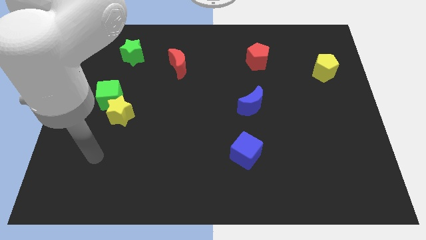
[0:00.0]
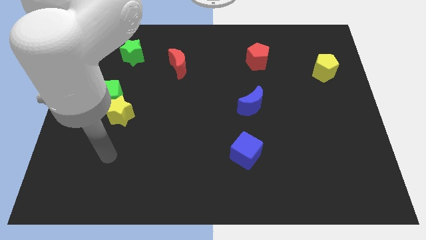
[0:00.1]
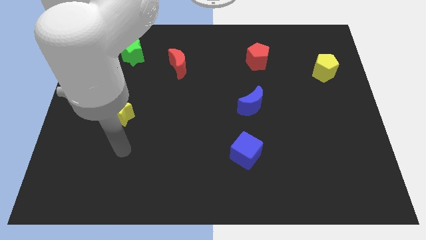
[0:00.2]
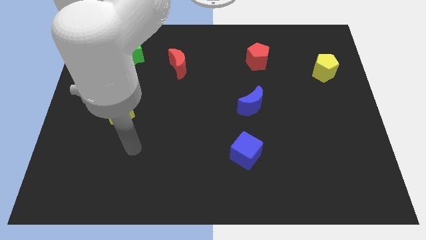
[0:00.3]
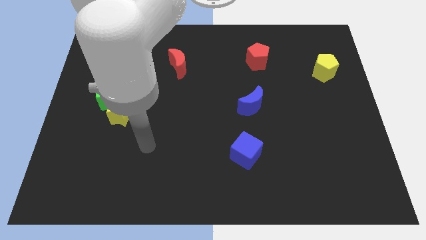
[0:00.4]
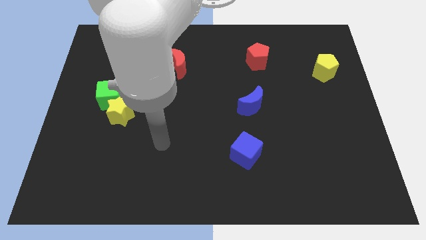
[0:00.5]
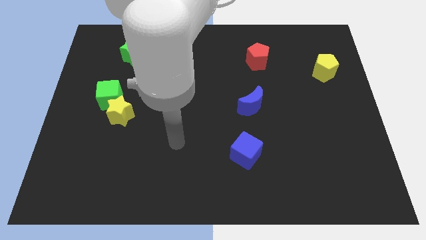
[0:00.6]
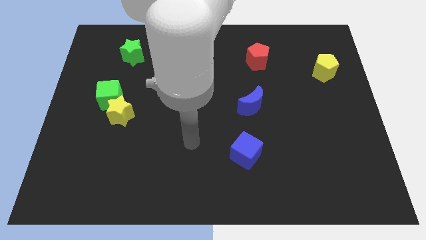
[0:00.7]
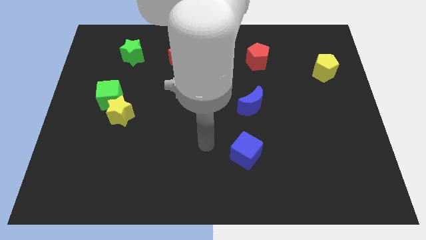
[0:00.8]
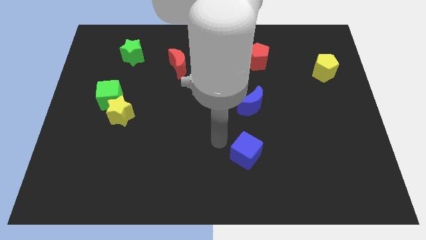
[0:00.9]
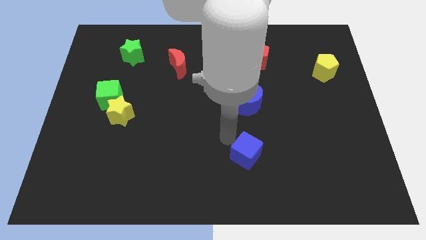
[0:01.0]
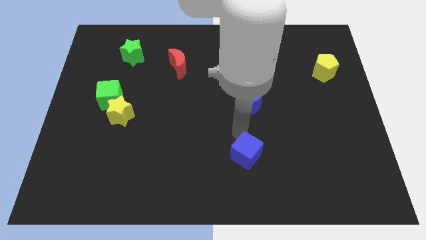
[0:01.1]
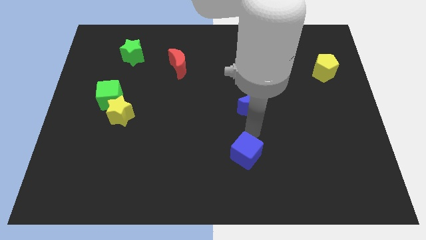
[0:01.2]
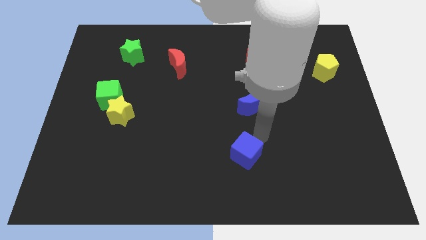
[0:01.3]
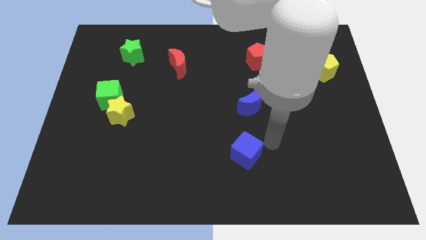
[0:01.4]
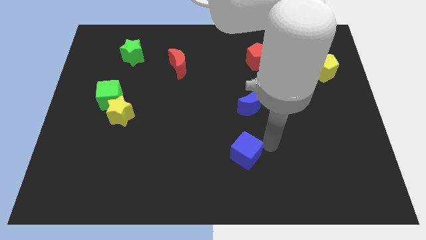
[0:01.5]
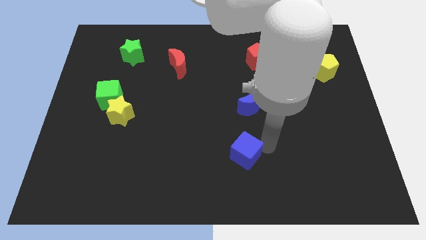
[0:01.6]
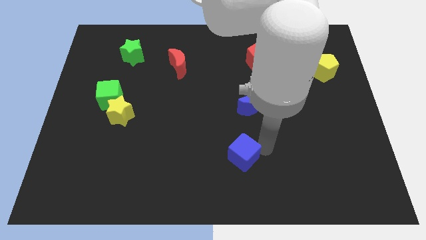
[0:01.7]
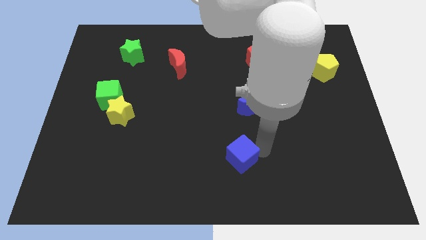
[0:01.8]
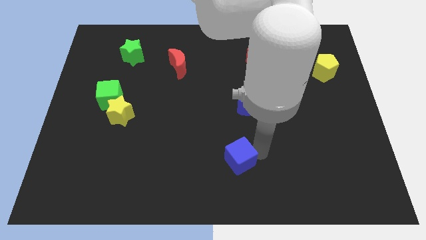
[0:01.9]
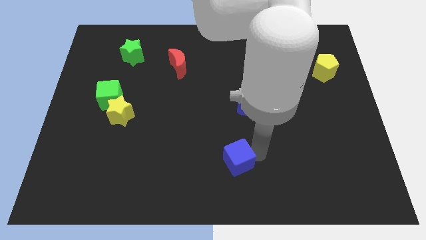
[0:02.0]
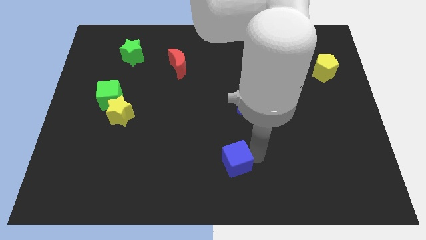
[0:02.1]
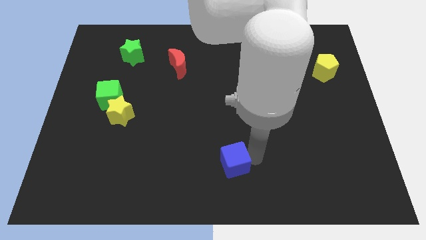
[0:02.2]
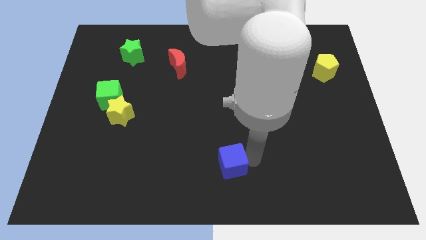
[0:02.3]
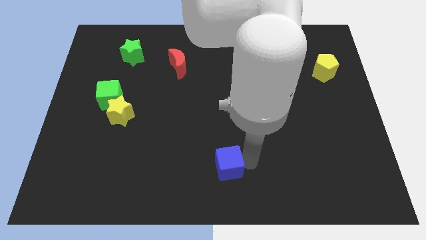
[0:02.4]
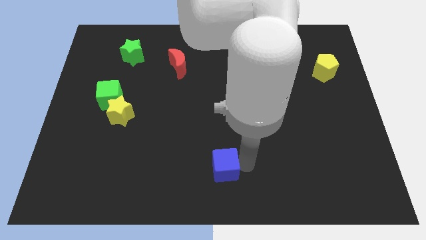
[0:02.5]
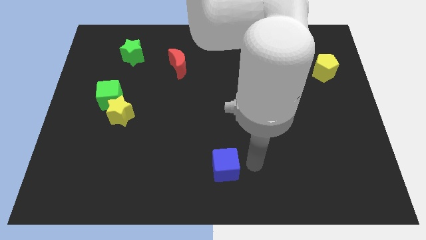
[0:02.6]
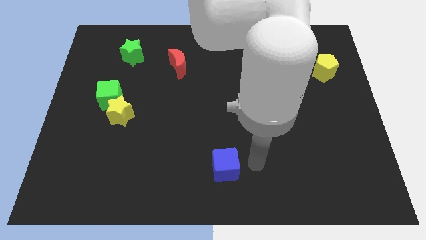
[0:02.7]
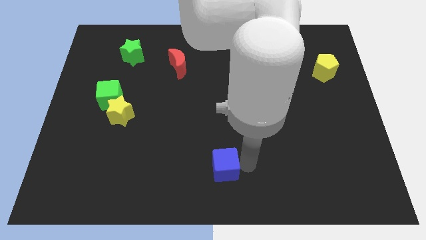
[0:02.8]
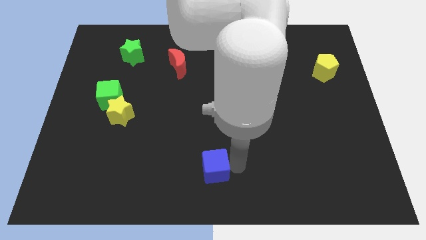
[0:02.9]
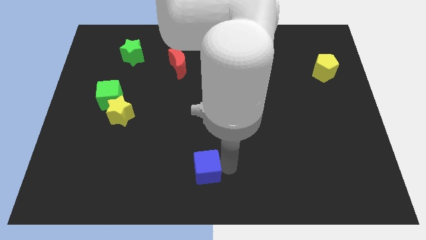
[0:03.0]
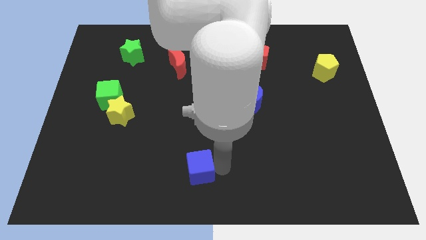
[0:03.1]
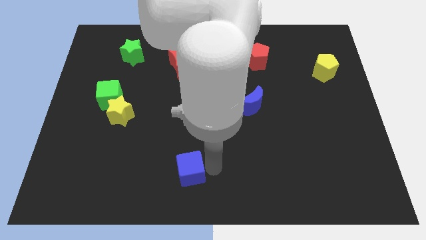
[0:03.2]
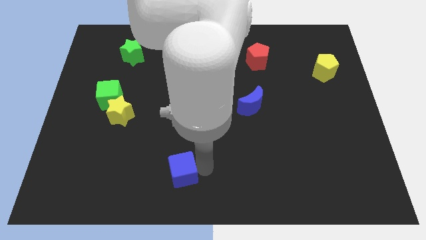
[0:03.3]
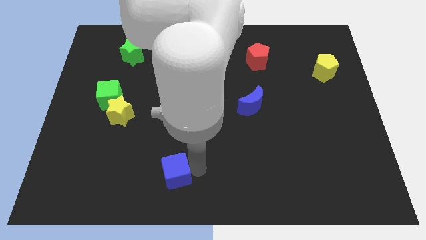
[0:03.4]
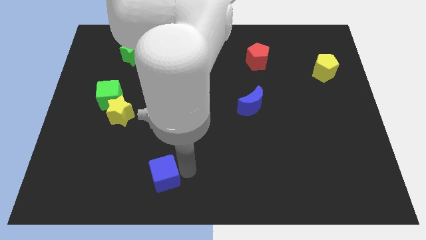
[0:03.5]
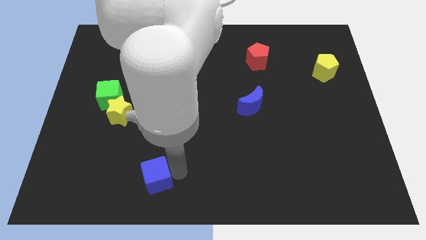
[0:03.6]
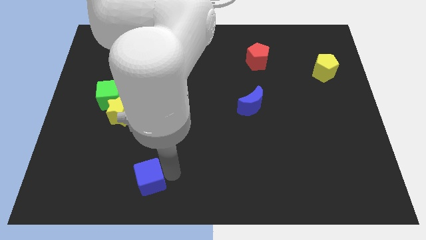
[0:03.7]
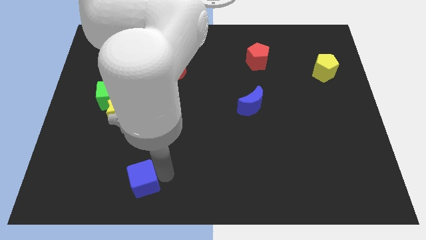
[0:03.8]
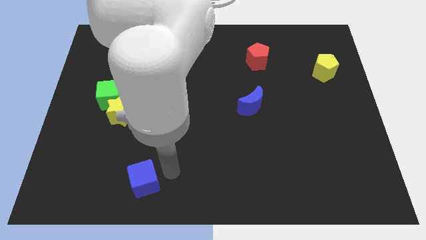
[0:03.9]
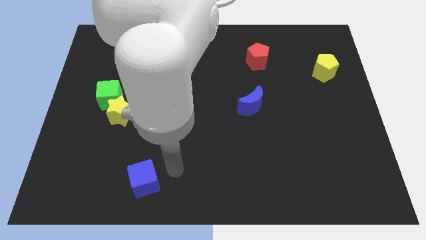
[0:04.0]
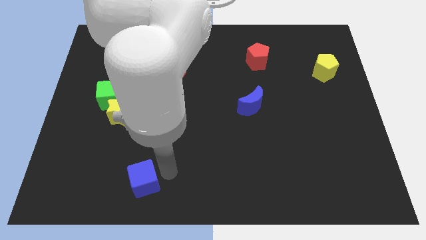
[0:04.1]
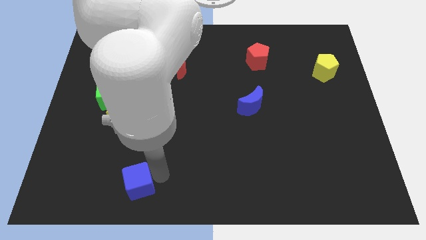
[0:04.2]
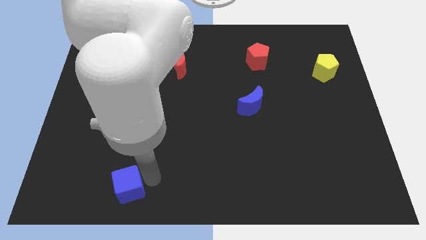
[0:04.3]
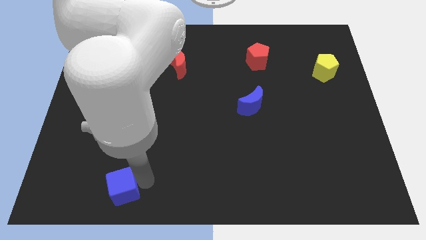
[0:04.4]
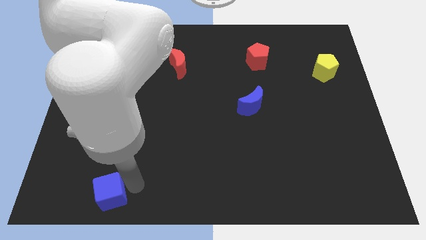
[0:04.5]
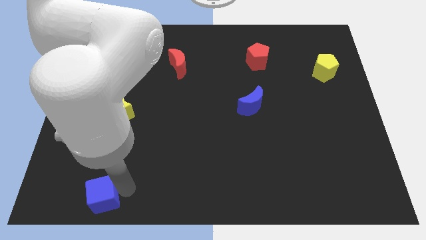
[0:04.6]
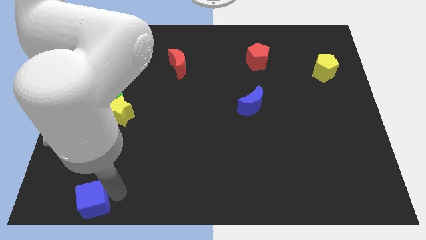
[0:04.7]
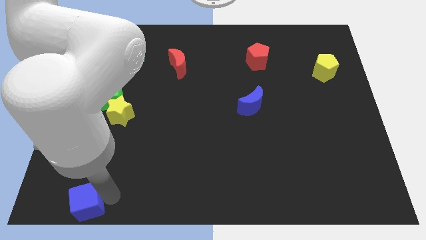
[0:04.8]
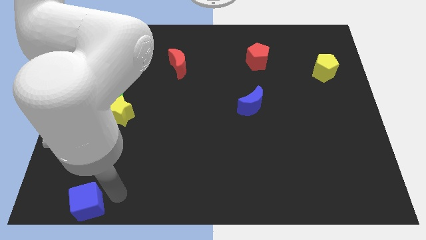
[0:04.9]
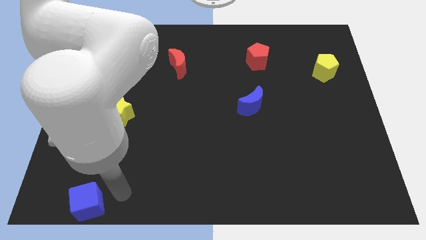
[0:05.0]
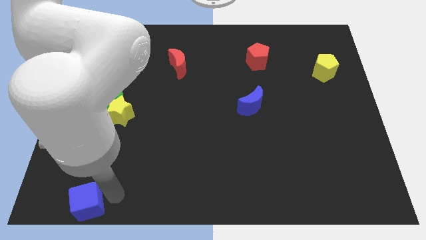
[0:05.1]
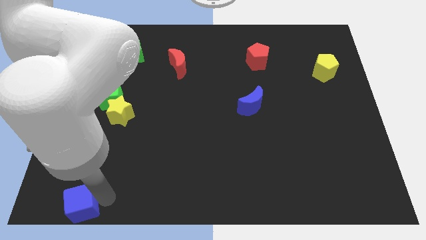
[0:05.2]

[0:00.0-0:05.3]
put the blue cube to the bottom left

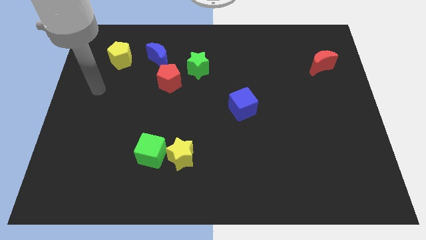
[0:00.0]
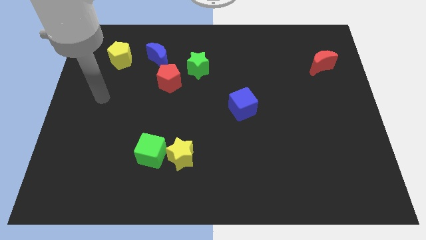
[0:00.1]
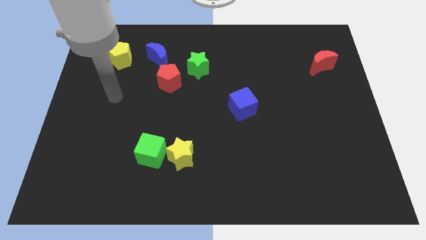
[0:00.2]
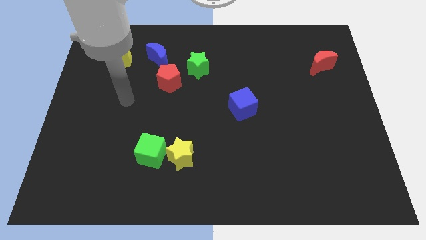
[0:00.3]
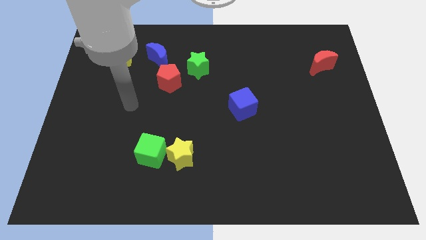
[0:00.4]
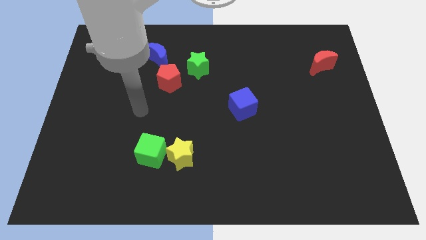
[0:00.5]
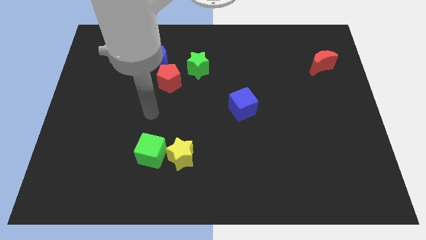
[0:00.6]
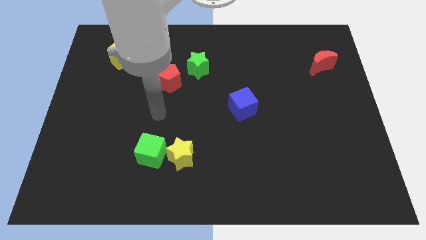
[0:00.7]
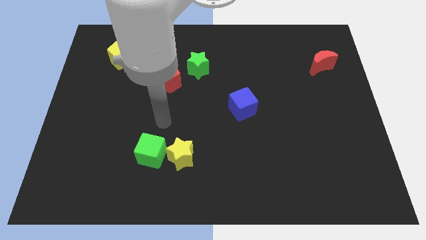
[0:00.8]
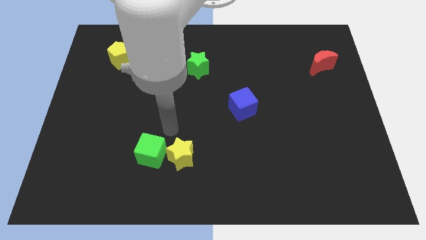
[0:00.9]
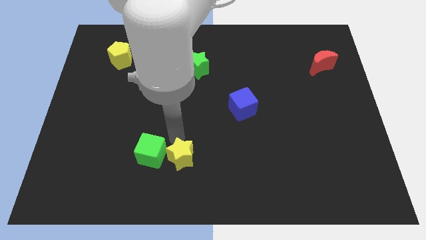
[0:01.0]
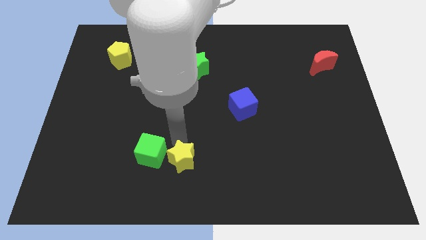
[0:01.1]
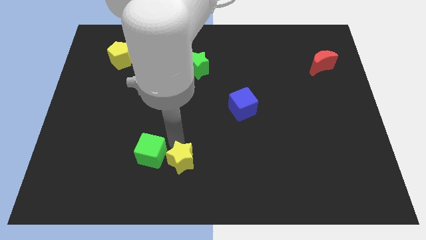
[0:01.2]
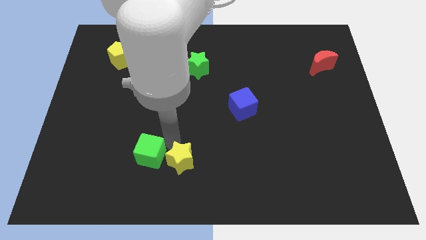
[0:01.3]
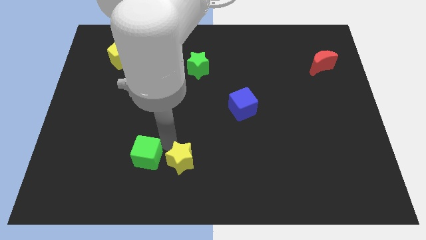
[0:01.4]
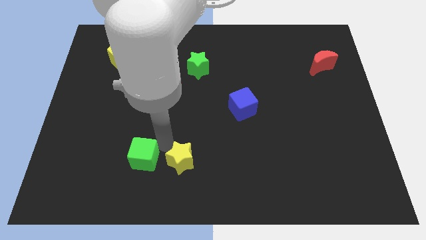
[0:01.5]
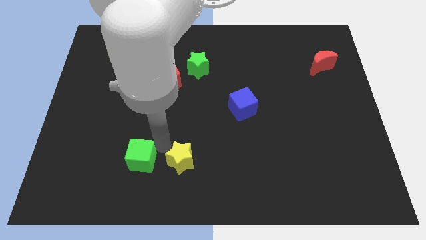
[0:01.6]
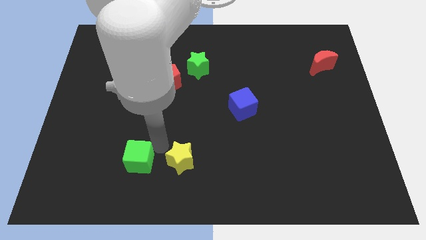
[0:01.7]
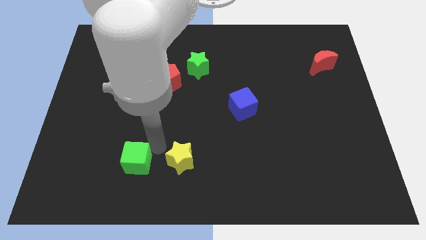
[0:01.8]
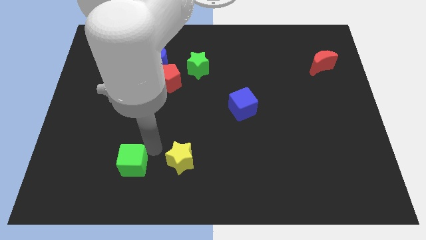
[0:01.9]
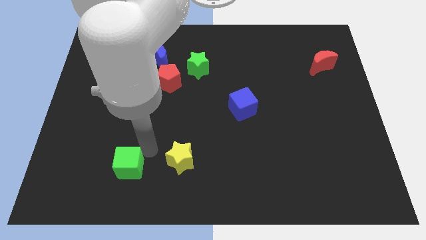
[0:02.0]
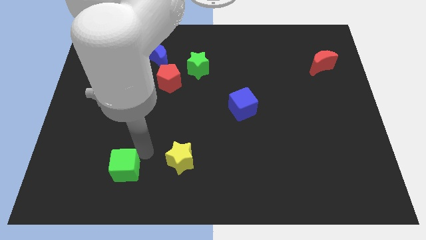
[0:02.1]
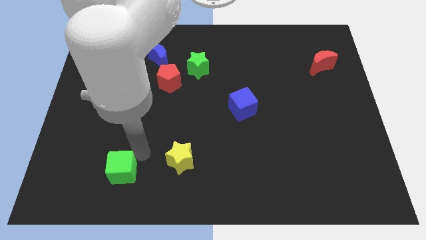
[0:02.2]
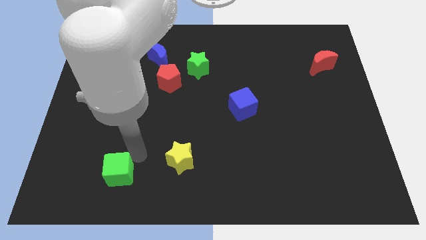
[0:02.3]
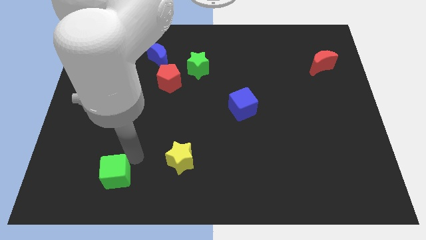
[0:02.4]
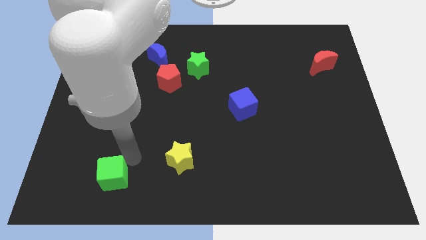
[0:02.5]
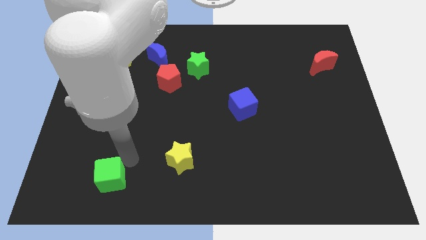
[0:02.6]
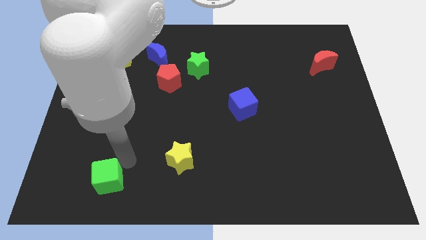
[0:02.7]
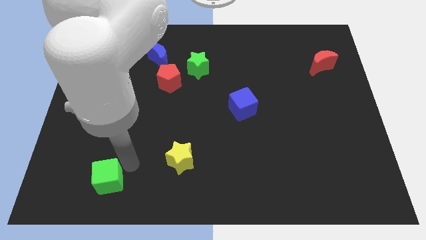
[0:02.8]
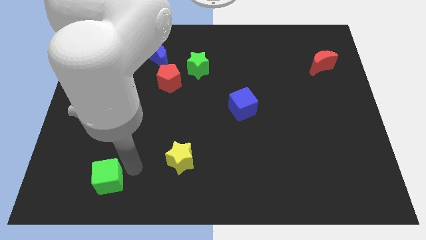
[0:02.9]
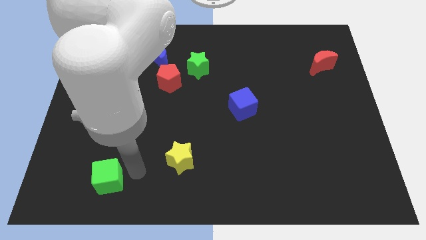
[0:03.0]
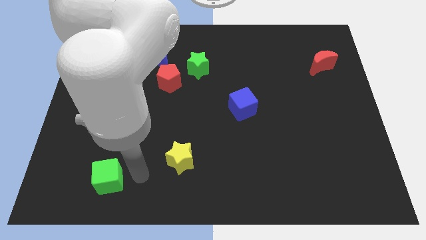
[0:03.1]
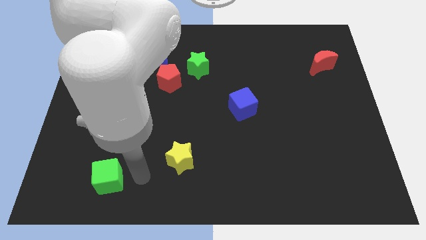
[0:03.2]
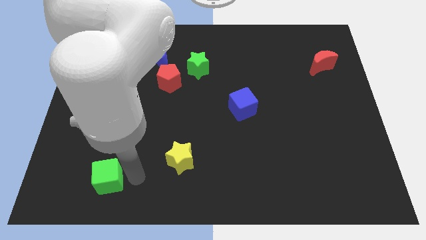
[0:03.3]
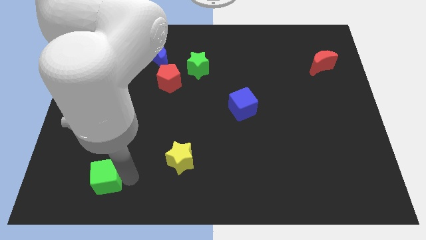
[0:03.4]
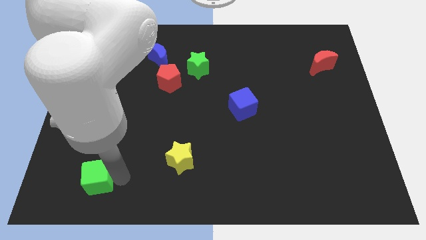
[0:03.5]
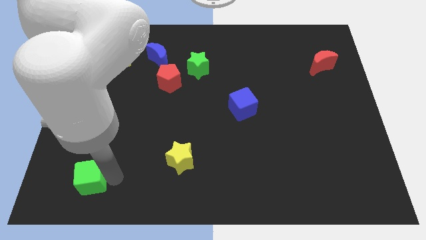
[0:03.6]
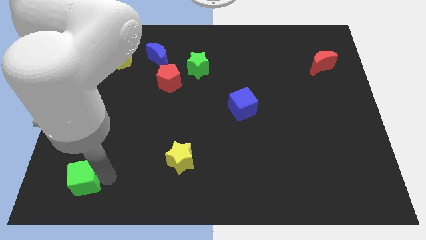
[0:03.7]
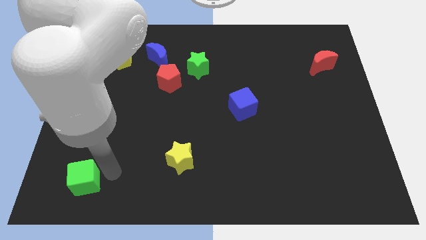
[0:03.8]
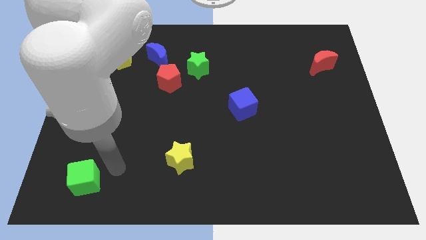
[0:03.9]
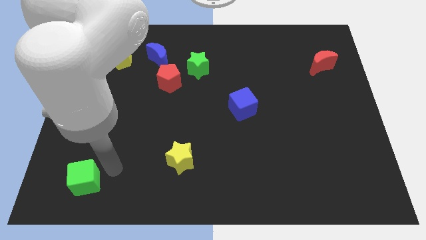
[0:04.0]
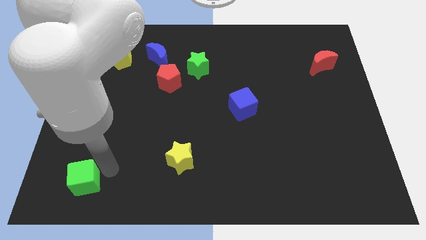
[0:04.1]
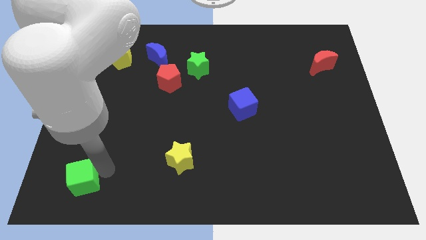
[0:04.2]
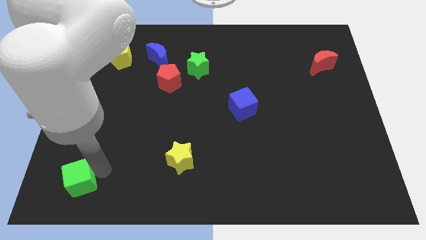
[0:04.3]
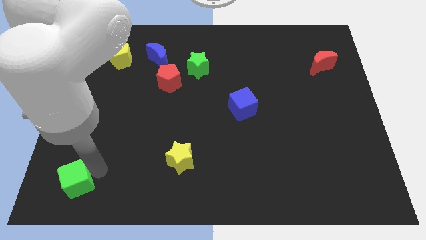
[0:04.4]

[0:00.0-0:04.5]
slide the green cube to the bottom left
